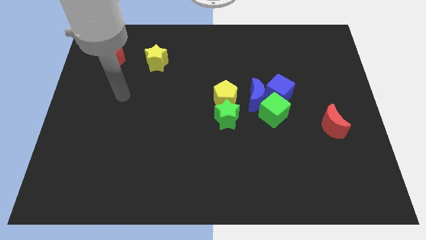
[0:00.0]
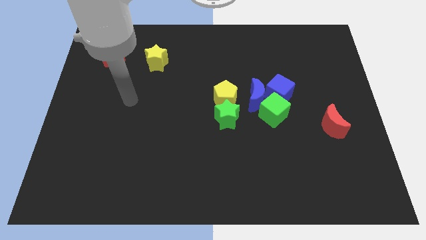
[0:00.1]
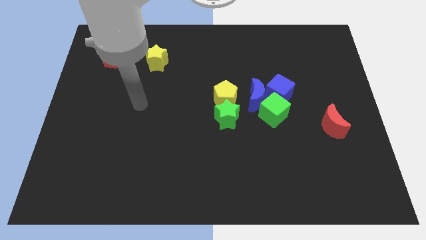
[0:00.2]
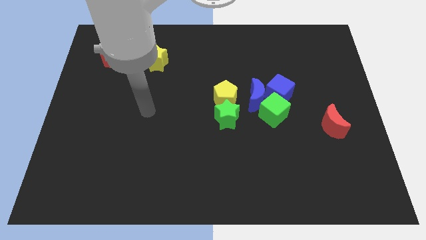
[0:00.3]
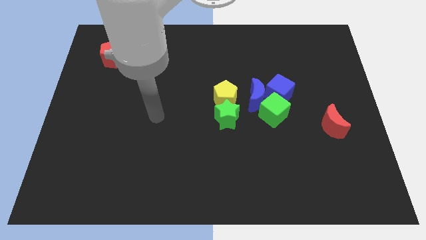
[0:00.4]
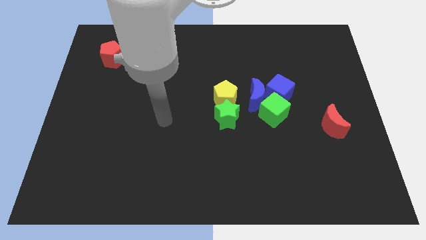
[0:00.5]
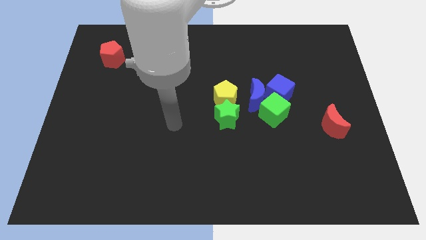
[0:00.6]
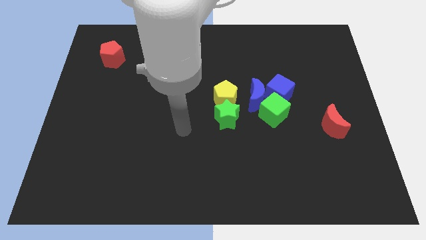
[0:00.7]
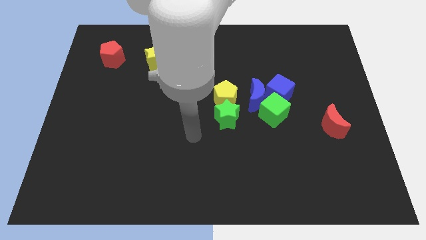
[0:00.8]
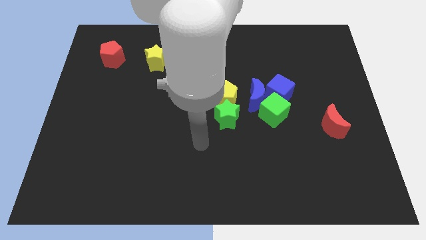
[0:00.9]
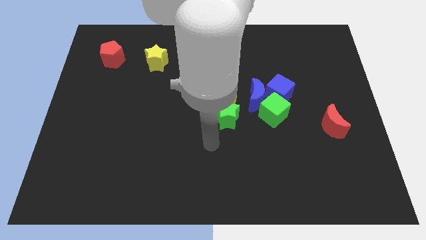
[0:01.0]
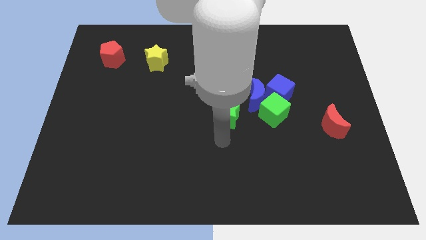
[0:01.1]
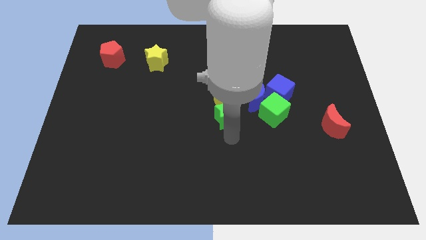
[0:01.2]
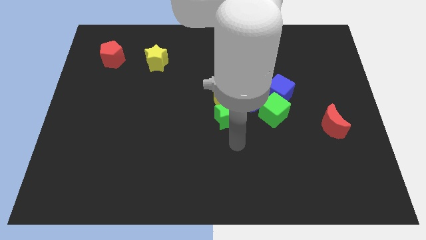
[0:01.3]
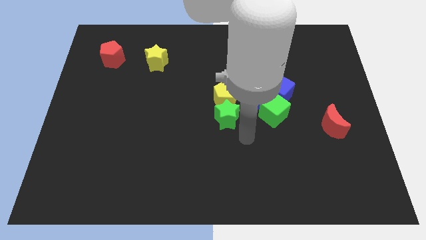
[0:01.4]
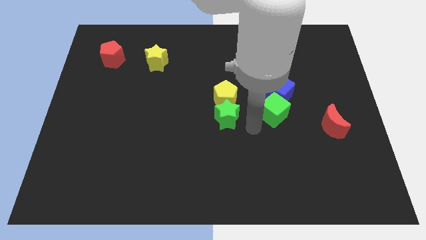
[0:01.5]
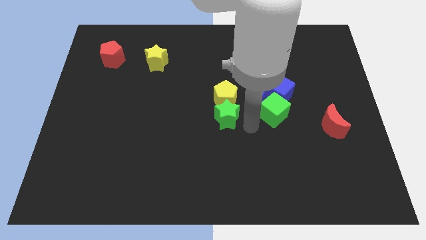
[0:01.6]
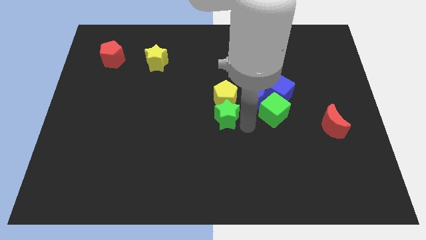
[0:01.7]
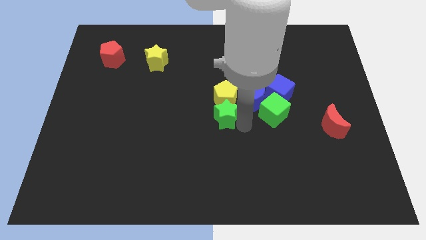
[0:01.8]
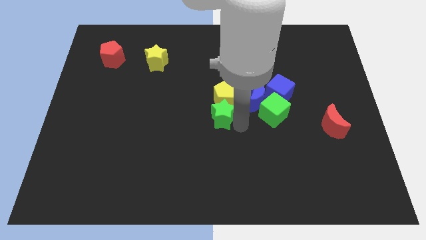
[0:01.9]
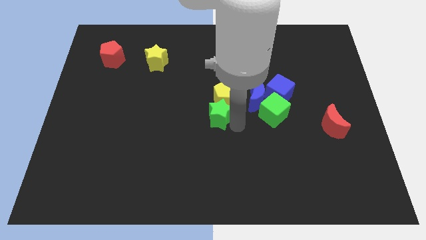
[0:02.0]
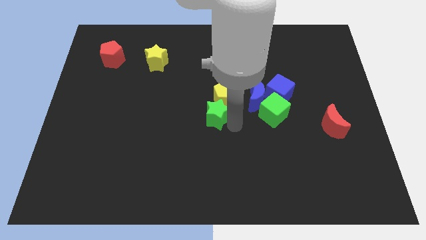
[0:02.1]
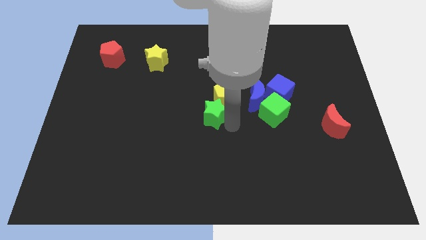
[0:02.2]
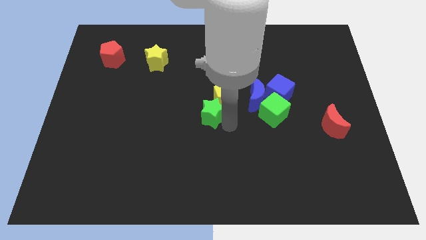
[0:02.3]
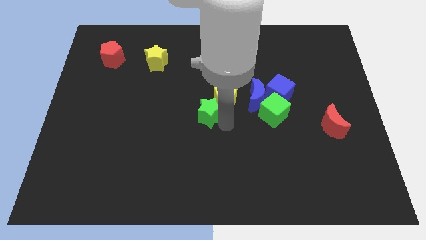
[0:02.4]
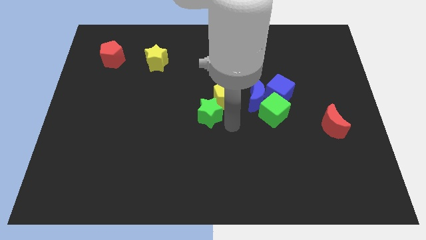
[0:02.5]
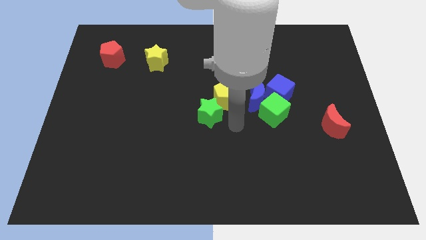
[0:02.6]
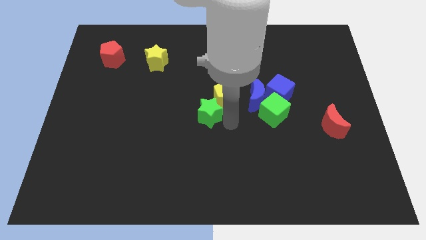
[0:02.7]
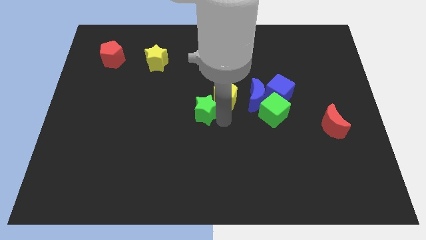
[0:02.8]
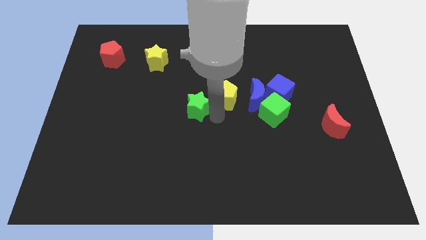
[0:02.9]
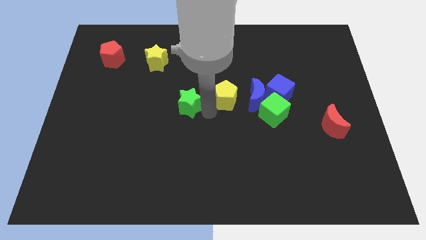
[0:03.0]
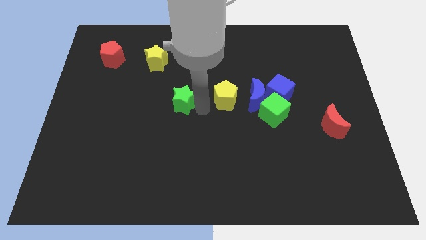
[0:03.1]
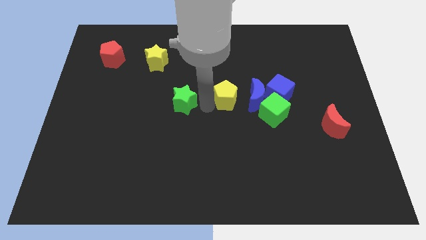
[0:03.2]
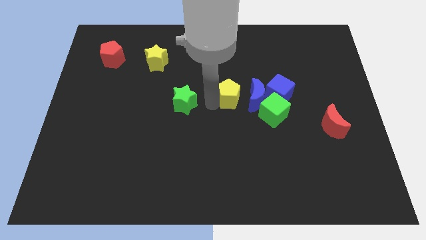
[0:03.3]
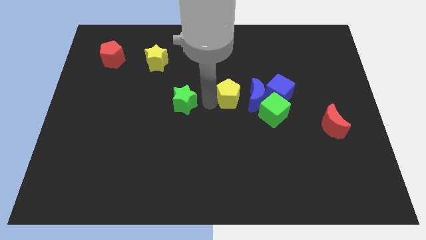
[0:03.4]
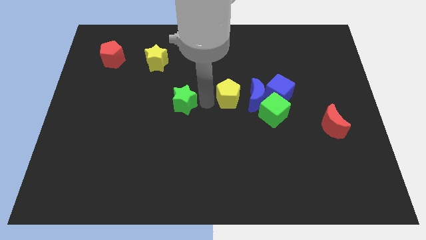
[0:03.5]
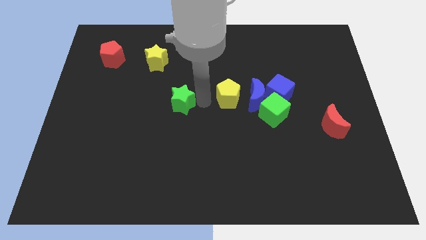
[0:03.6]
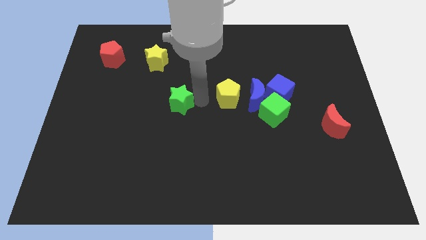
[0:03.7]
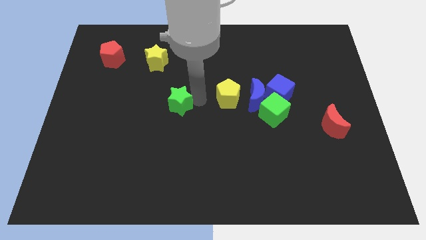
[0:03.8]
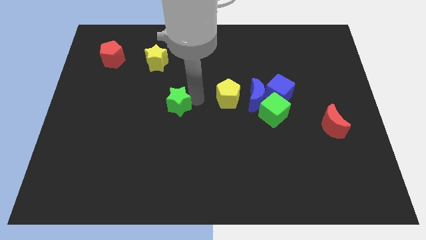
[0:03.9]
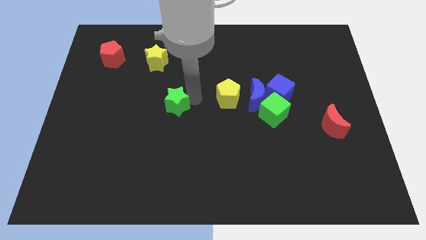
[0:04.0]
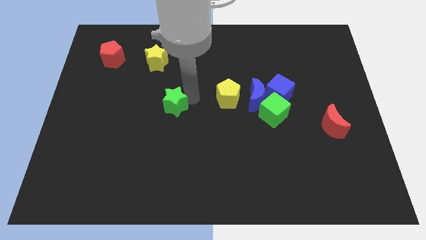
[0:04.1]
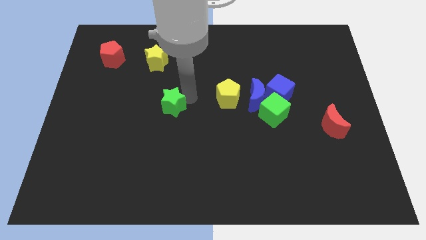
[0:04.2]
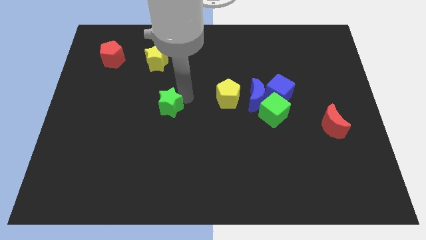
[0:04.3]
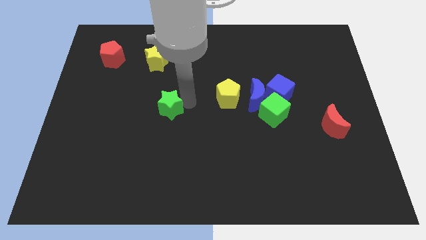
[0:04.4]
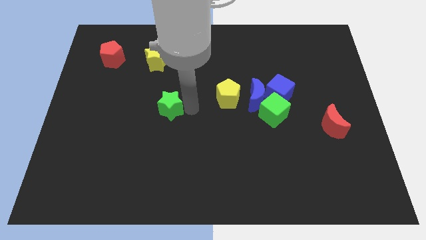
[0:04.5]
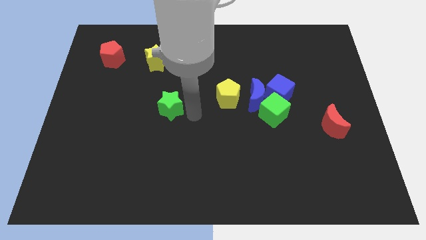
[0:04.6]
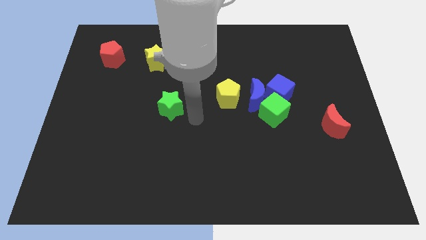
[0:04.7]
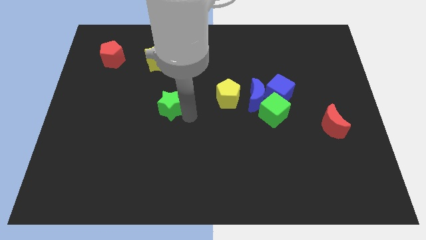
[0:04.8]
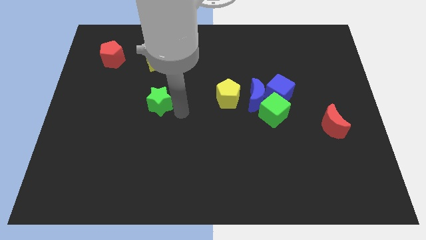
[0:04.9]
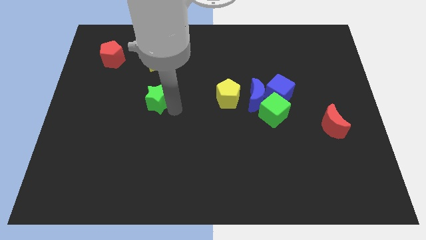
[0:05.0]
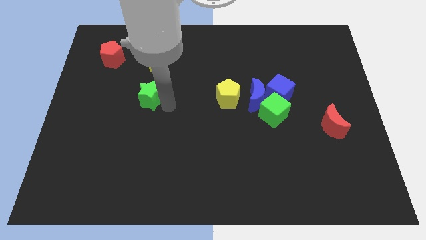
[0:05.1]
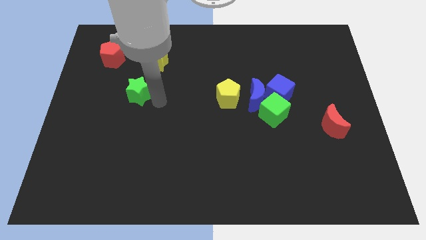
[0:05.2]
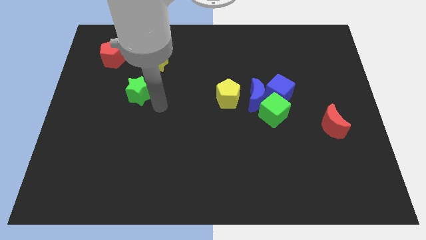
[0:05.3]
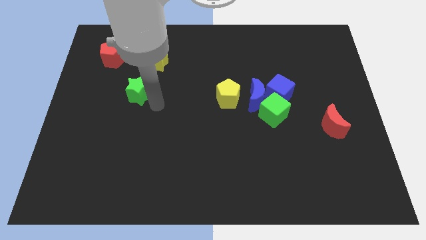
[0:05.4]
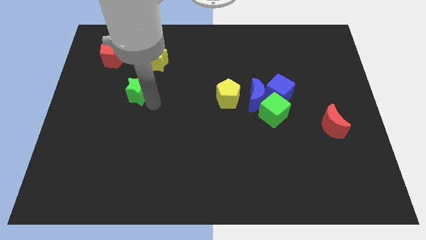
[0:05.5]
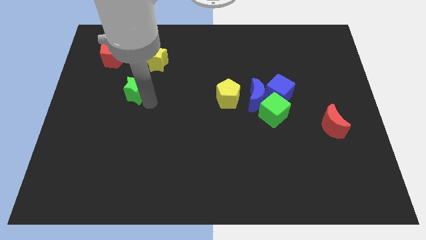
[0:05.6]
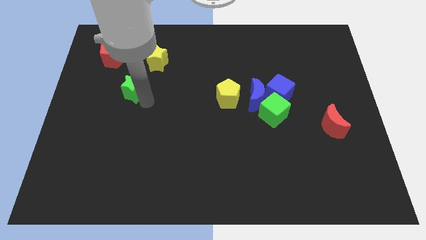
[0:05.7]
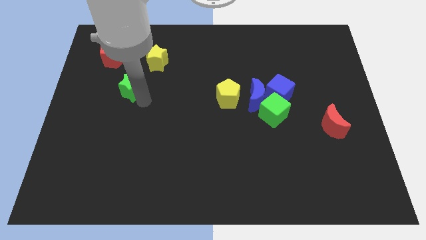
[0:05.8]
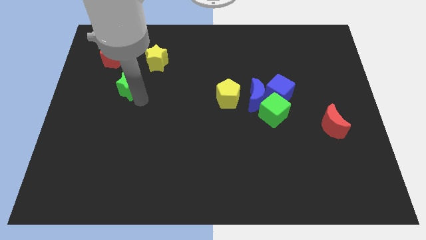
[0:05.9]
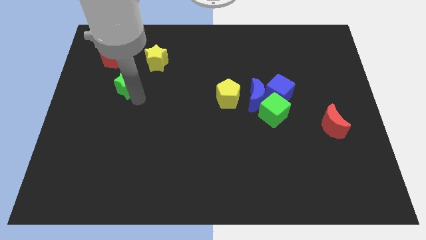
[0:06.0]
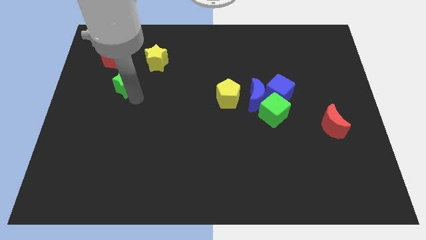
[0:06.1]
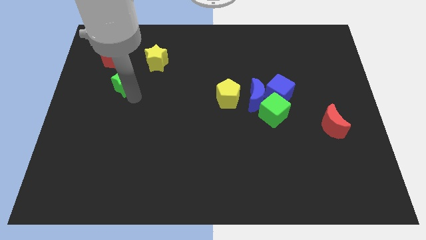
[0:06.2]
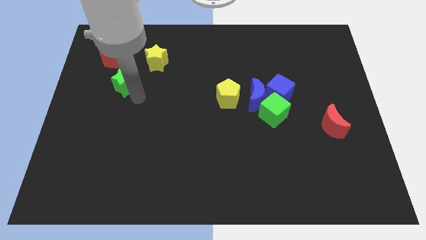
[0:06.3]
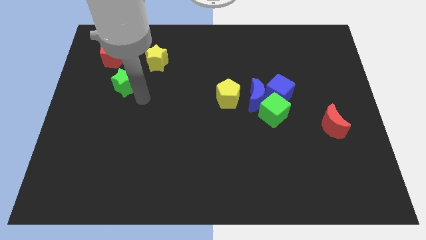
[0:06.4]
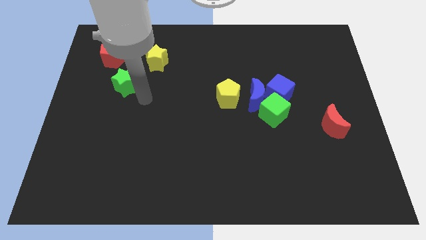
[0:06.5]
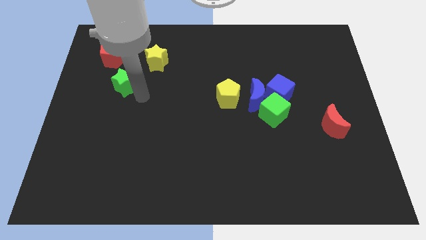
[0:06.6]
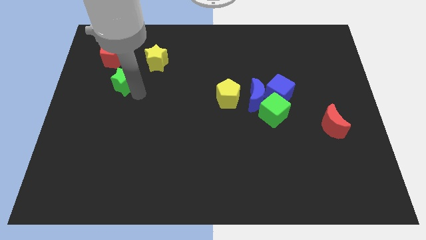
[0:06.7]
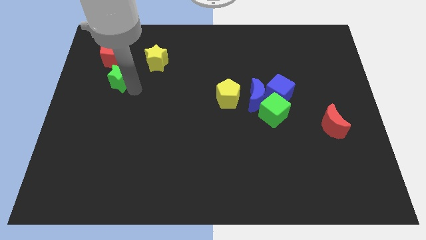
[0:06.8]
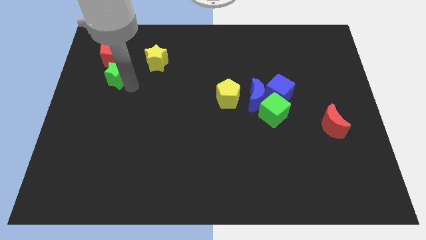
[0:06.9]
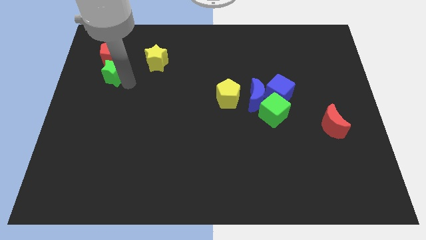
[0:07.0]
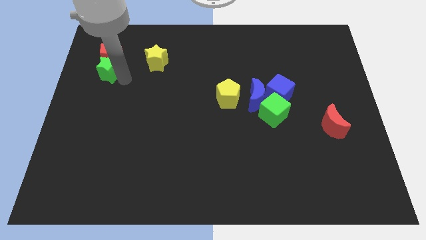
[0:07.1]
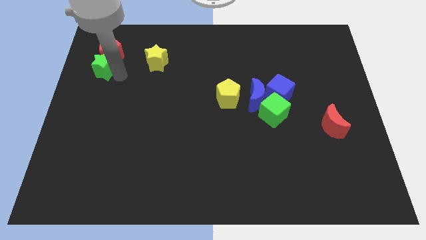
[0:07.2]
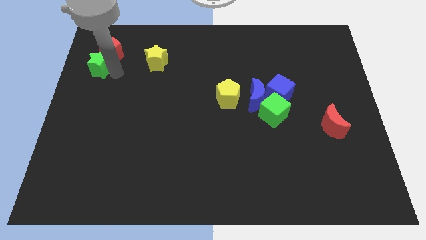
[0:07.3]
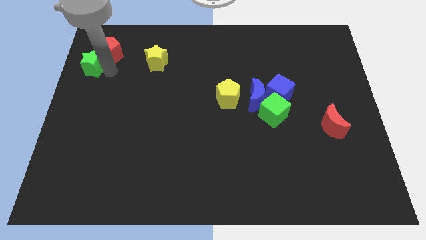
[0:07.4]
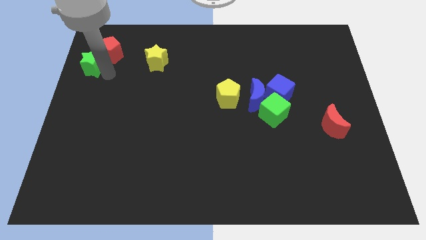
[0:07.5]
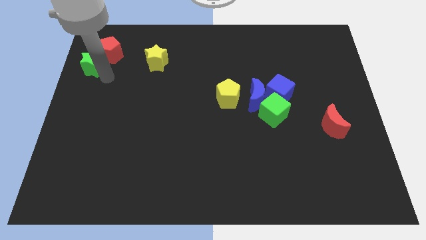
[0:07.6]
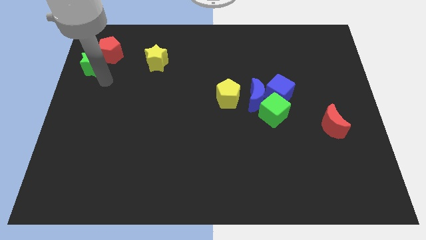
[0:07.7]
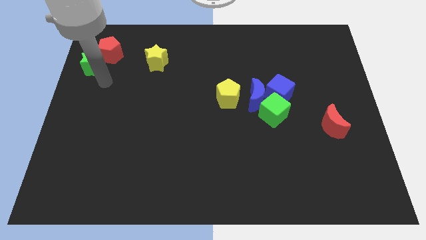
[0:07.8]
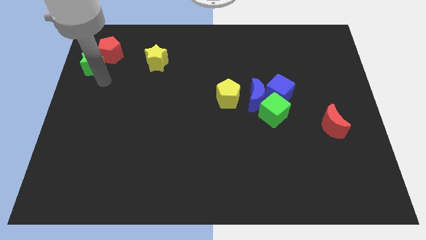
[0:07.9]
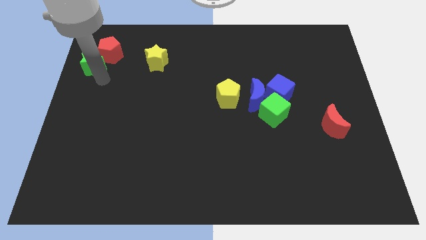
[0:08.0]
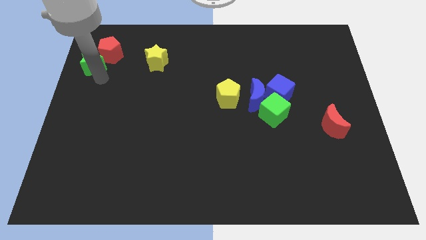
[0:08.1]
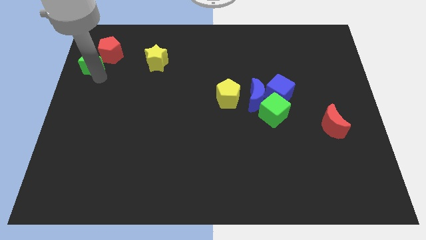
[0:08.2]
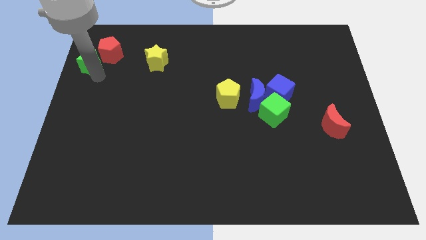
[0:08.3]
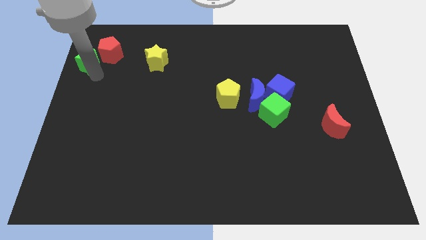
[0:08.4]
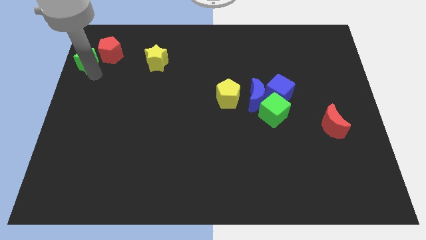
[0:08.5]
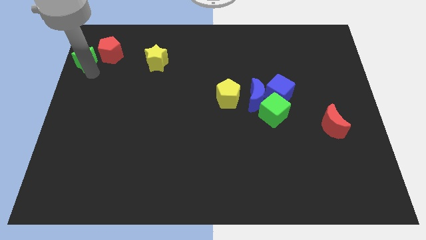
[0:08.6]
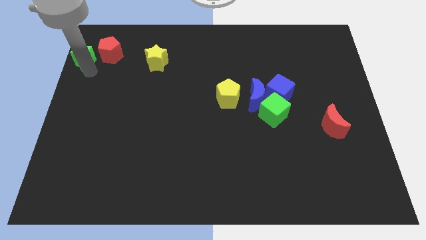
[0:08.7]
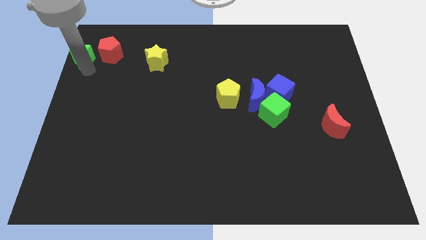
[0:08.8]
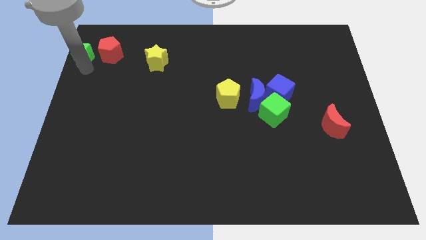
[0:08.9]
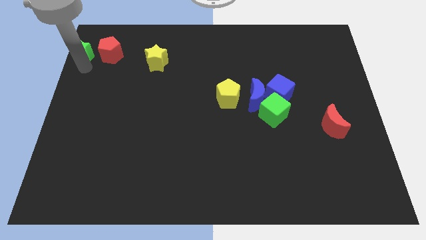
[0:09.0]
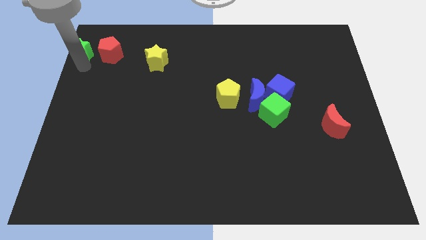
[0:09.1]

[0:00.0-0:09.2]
slide the green star to the top left corner
